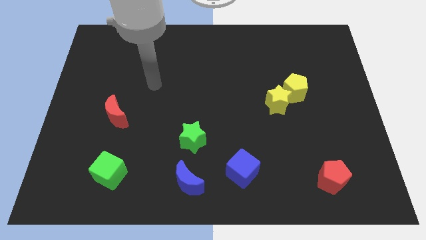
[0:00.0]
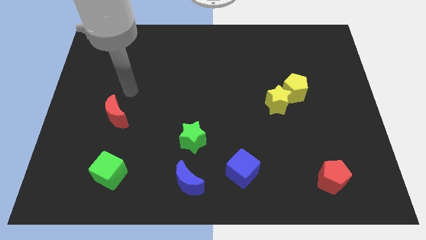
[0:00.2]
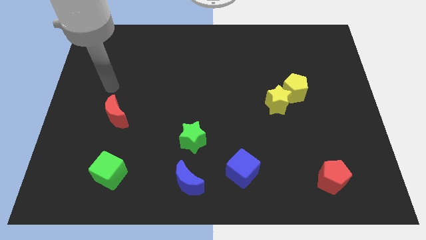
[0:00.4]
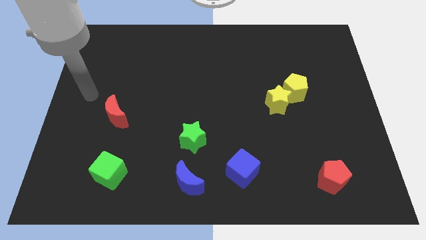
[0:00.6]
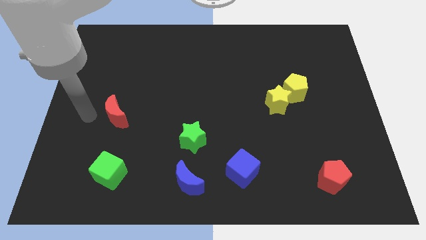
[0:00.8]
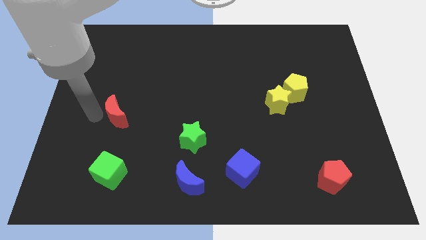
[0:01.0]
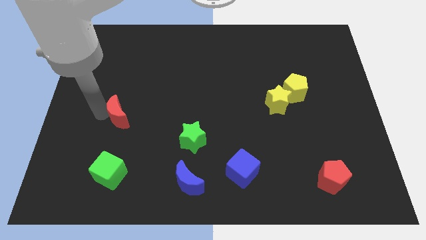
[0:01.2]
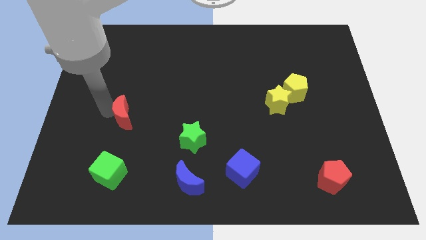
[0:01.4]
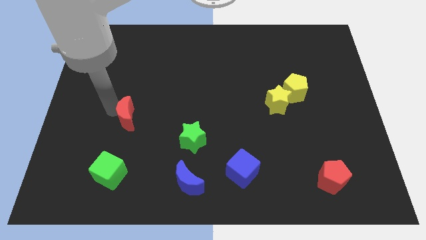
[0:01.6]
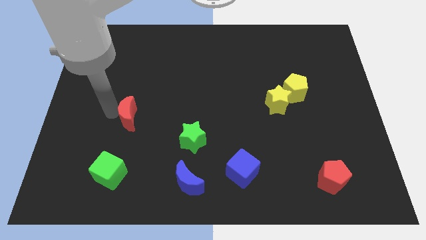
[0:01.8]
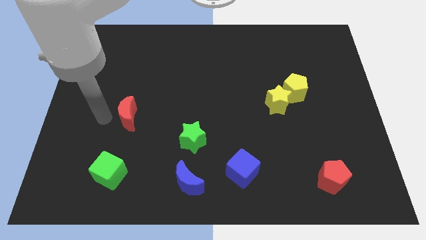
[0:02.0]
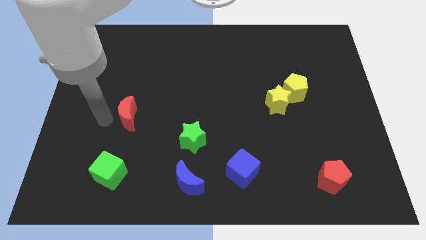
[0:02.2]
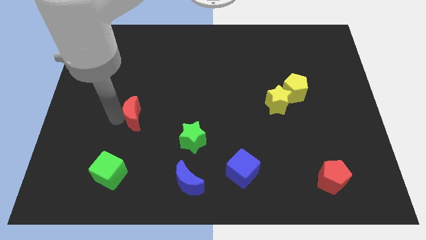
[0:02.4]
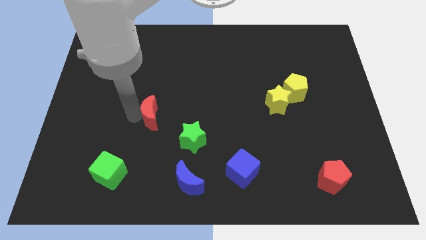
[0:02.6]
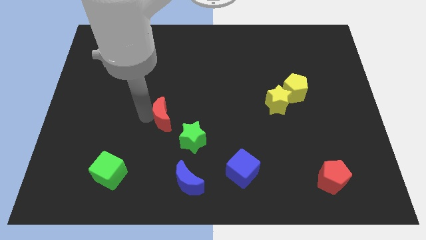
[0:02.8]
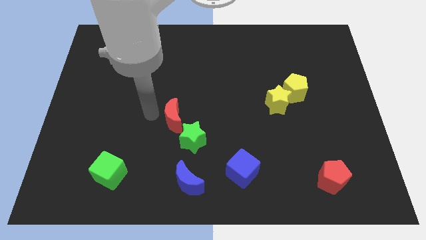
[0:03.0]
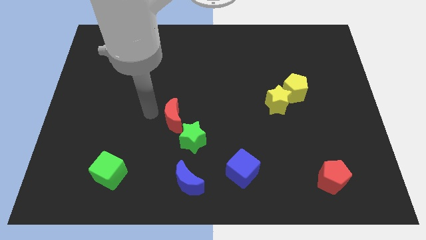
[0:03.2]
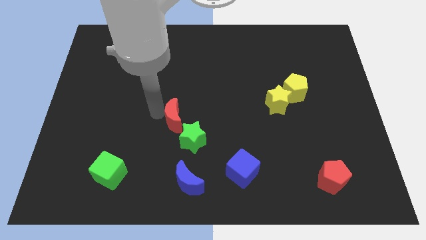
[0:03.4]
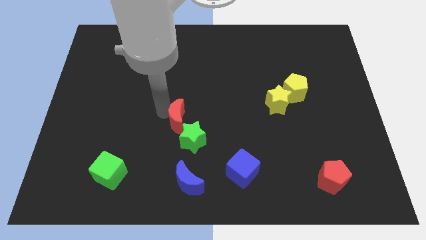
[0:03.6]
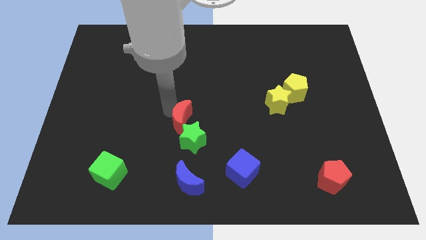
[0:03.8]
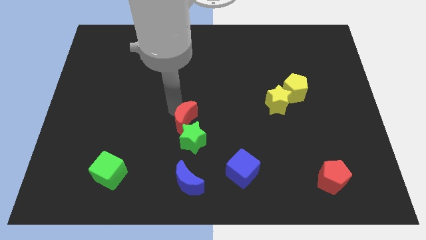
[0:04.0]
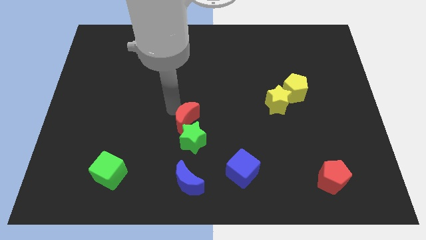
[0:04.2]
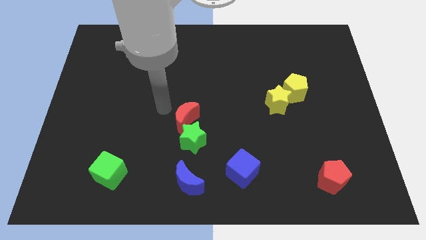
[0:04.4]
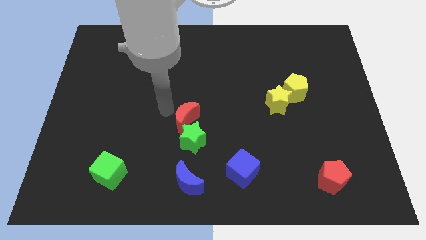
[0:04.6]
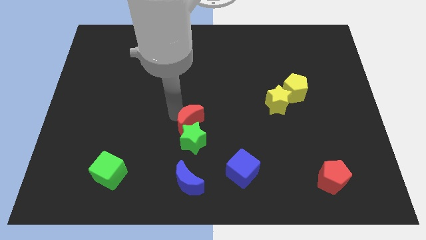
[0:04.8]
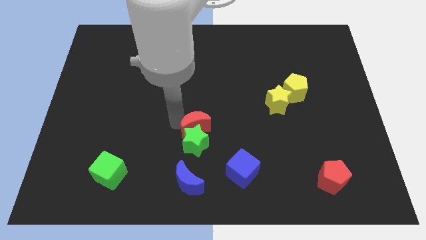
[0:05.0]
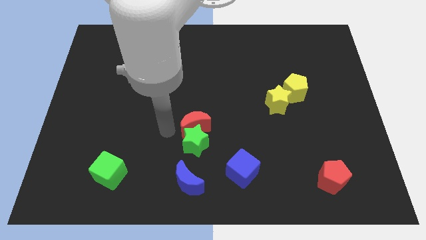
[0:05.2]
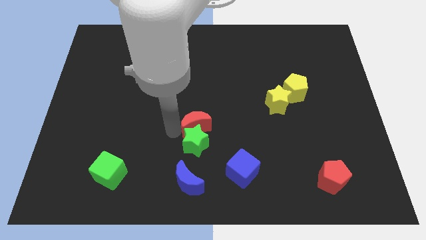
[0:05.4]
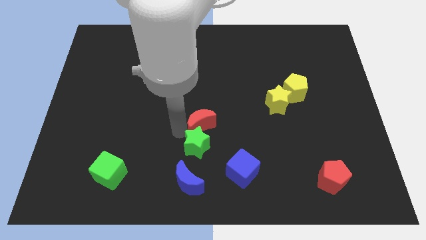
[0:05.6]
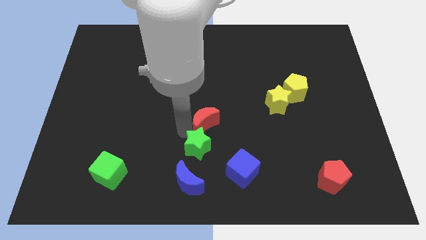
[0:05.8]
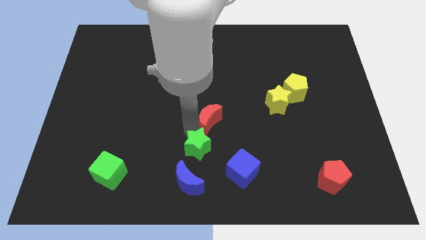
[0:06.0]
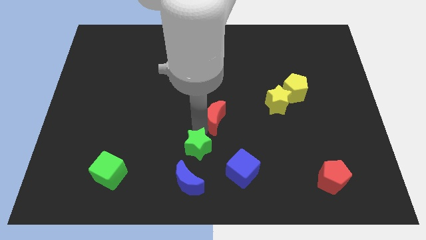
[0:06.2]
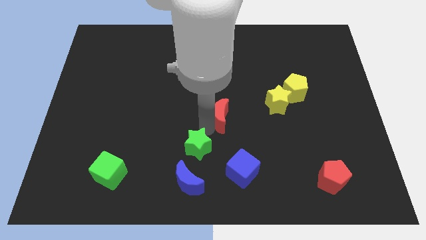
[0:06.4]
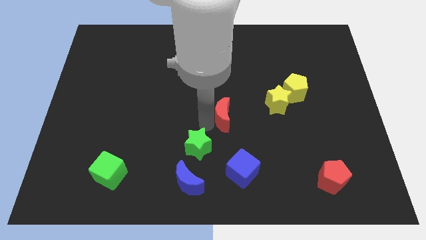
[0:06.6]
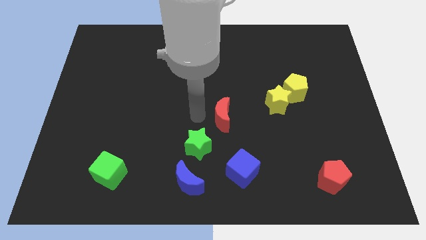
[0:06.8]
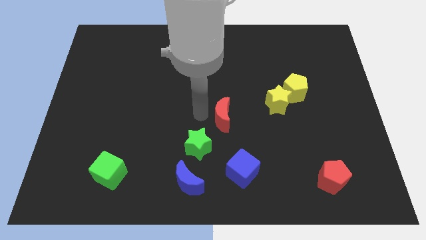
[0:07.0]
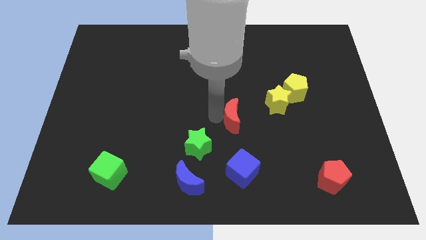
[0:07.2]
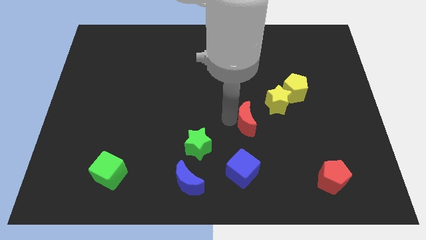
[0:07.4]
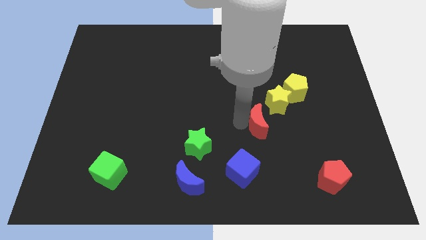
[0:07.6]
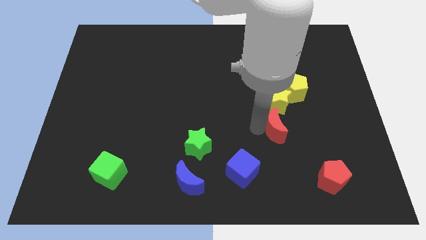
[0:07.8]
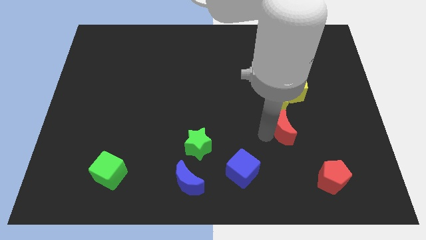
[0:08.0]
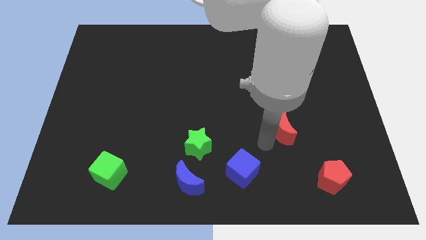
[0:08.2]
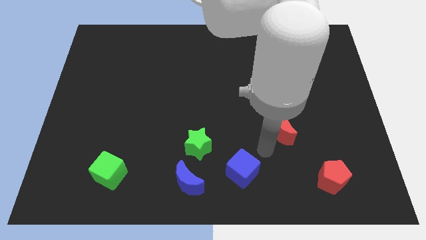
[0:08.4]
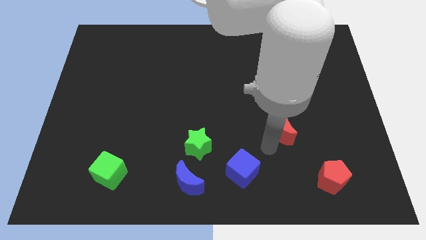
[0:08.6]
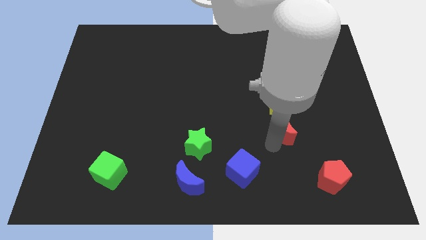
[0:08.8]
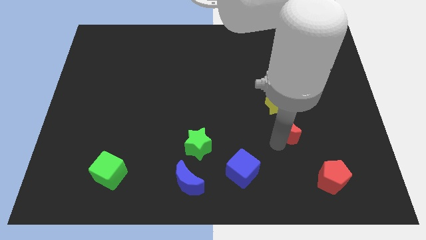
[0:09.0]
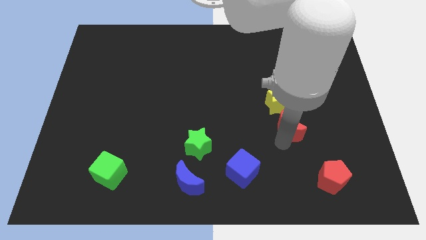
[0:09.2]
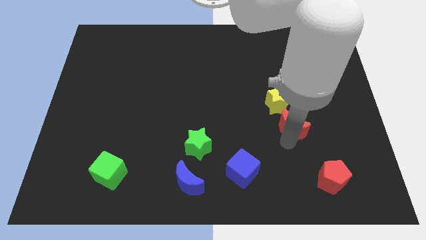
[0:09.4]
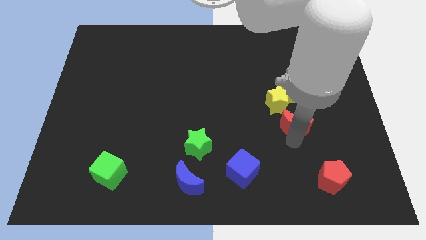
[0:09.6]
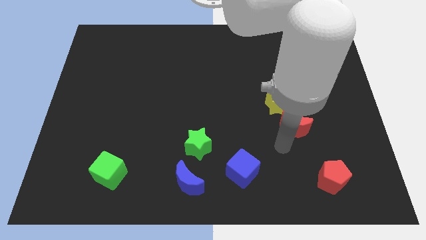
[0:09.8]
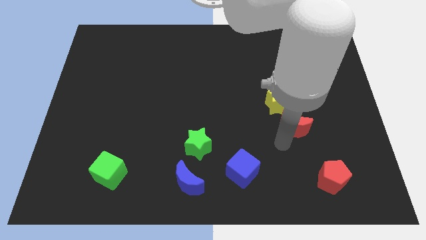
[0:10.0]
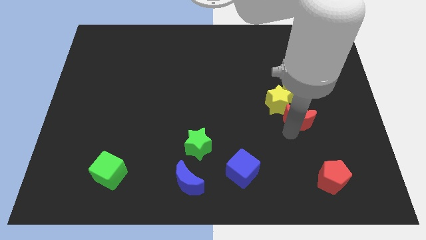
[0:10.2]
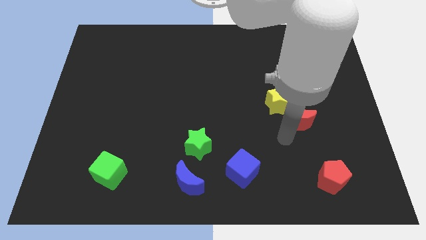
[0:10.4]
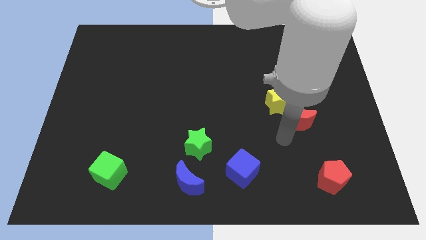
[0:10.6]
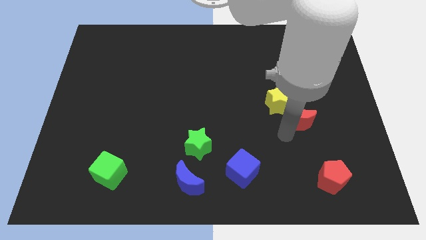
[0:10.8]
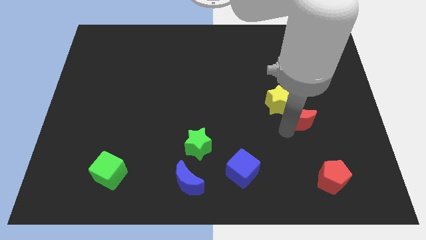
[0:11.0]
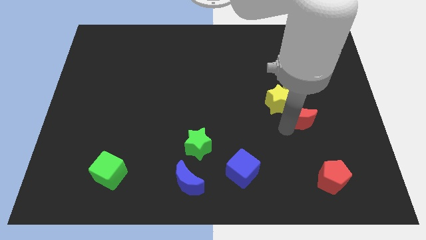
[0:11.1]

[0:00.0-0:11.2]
push the red moon to the right of the yellow star

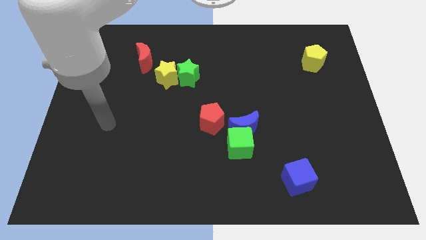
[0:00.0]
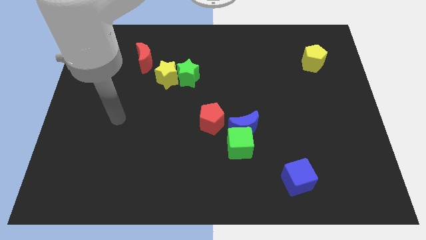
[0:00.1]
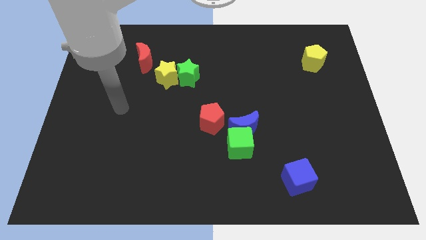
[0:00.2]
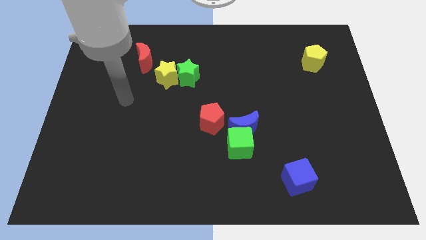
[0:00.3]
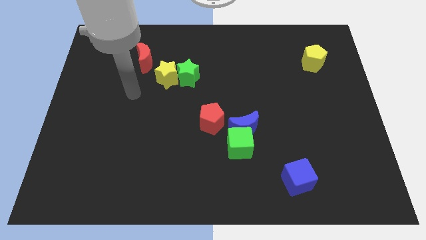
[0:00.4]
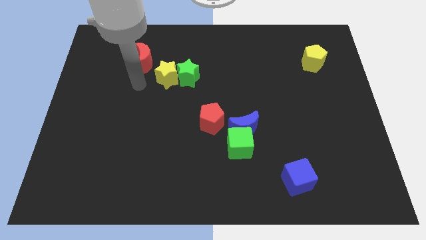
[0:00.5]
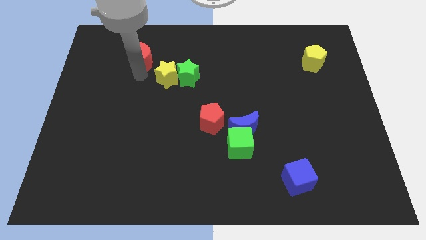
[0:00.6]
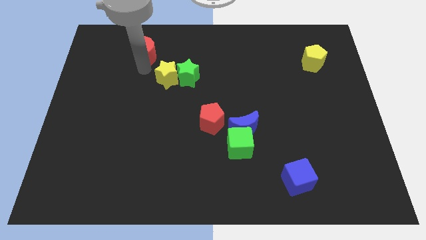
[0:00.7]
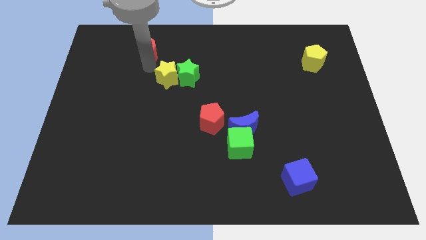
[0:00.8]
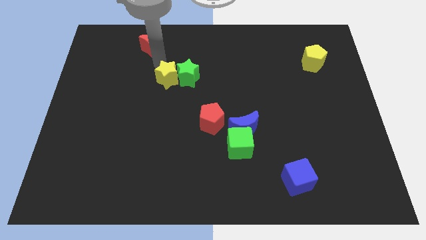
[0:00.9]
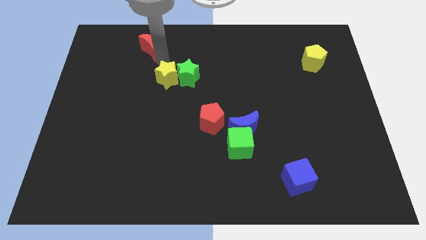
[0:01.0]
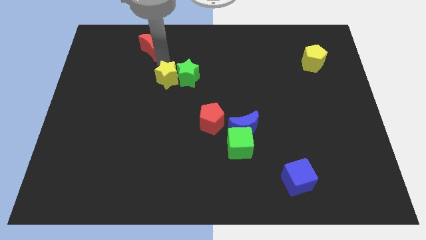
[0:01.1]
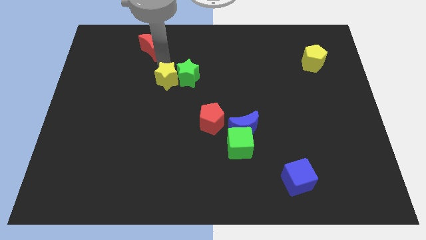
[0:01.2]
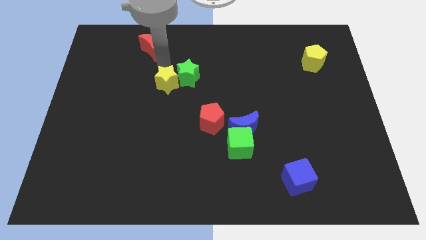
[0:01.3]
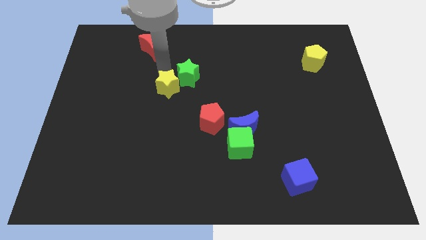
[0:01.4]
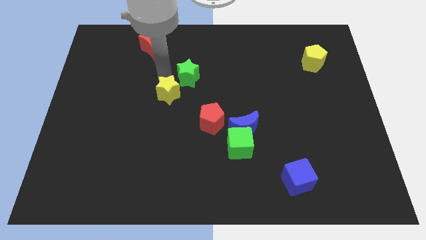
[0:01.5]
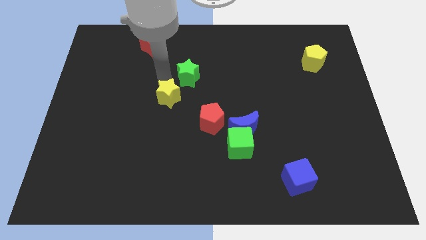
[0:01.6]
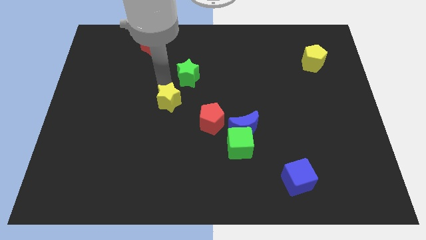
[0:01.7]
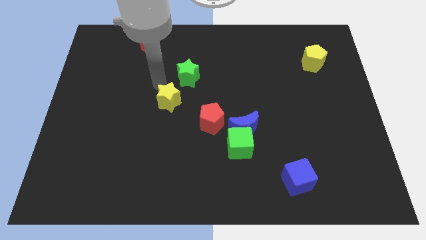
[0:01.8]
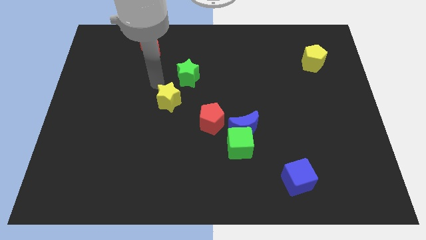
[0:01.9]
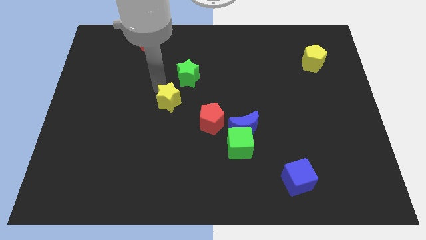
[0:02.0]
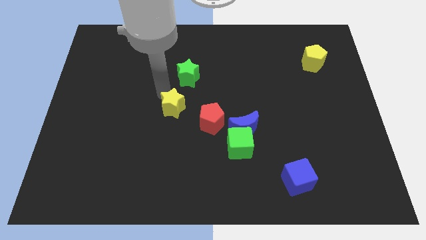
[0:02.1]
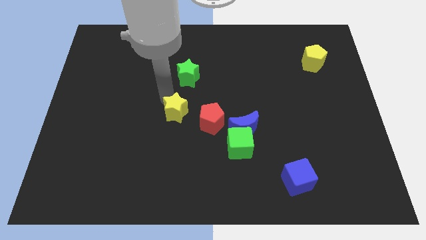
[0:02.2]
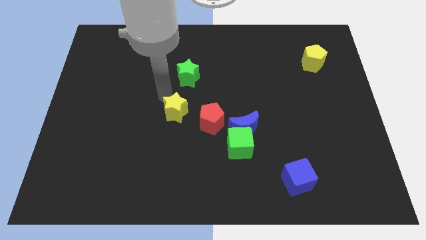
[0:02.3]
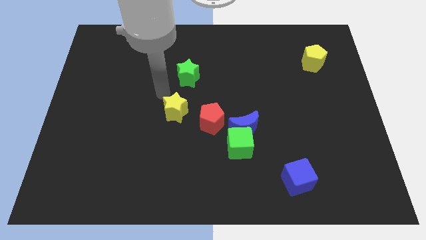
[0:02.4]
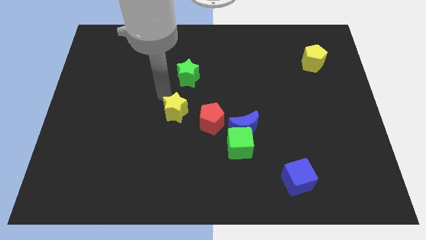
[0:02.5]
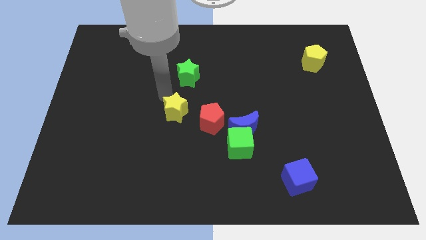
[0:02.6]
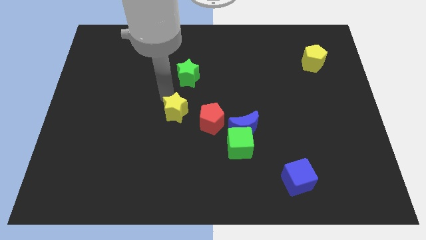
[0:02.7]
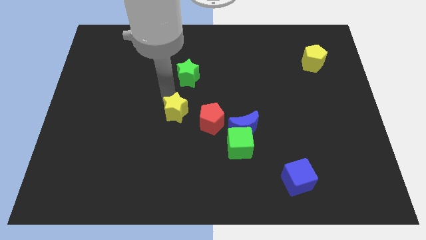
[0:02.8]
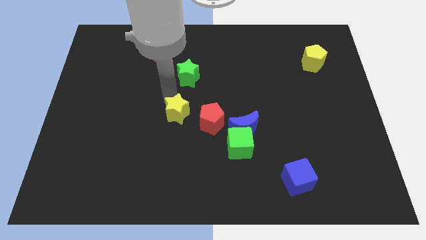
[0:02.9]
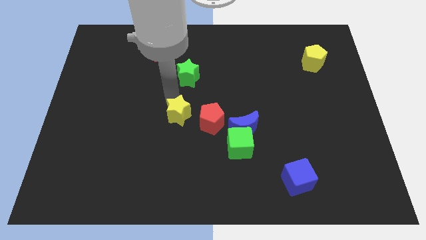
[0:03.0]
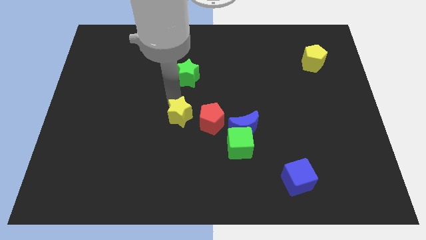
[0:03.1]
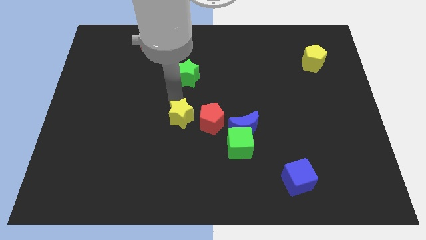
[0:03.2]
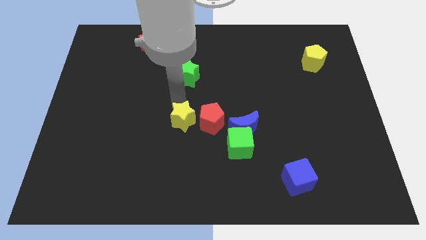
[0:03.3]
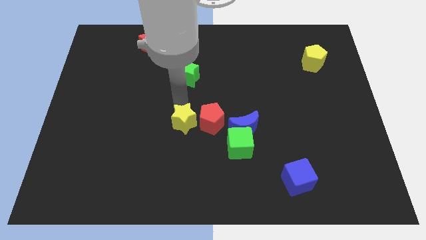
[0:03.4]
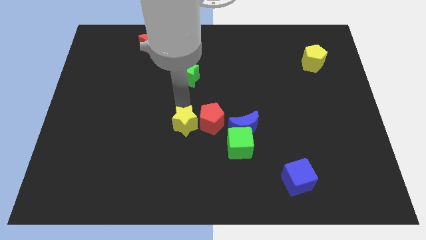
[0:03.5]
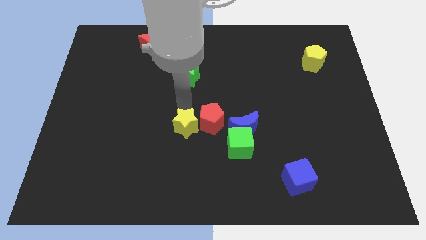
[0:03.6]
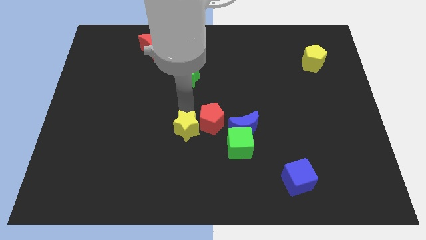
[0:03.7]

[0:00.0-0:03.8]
push the yellow star to the left side of the green cube
